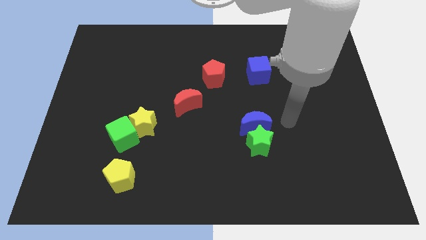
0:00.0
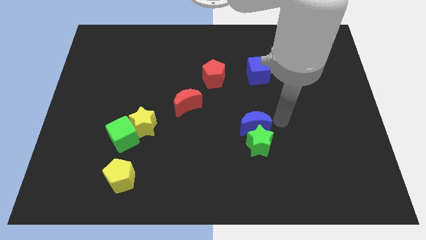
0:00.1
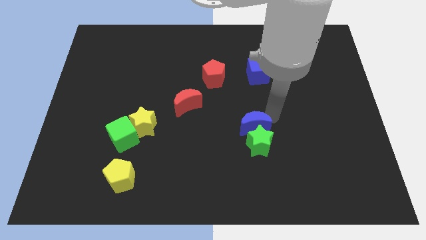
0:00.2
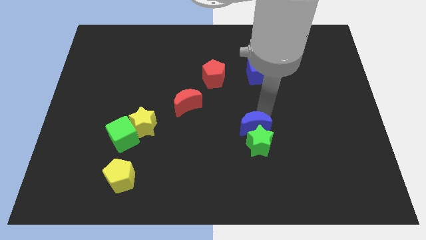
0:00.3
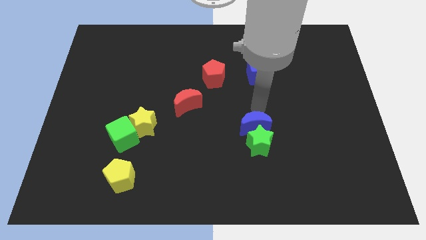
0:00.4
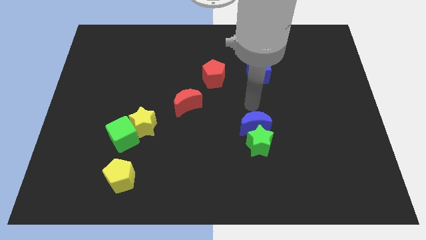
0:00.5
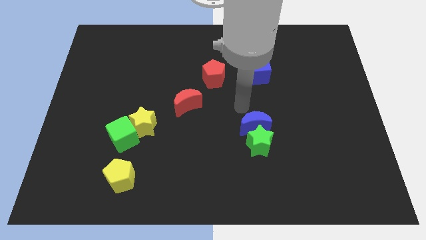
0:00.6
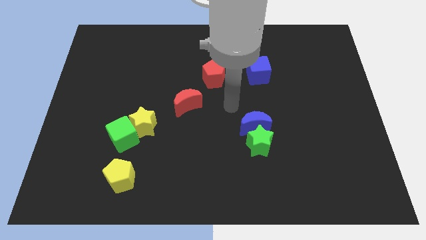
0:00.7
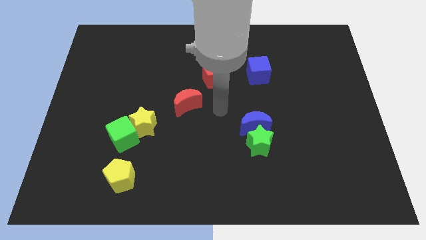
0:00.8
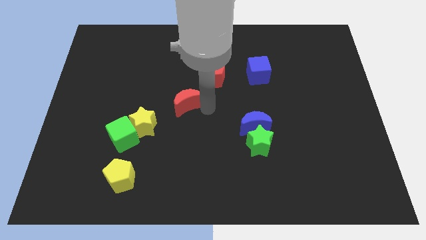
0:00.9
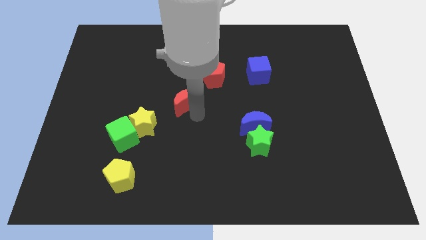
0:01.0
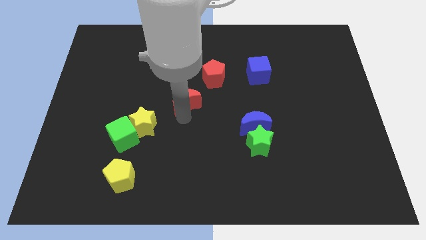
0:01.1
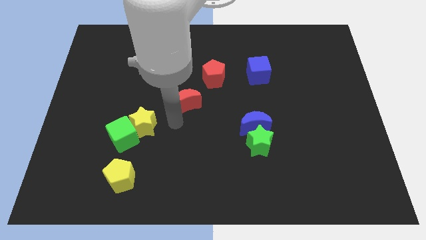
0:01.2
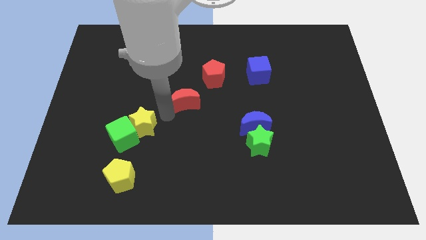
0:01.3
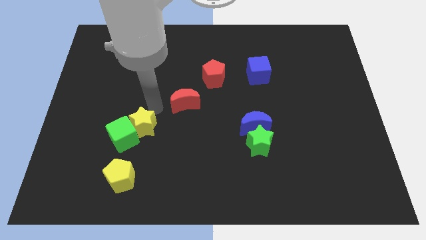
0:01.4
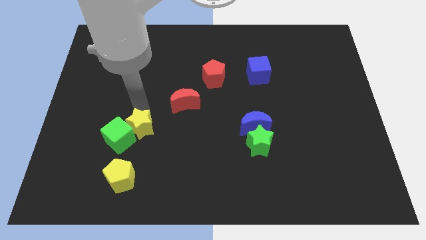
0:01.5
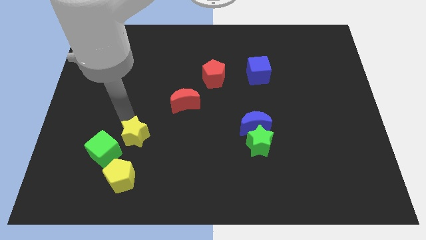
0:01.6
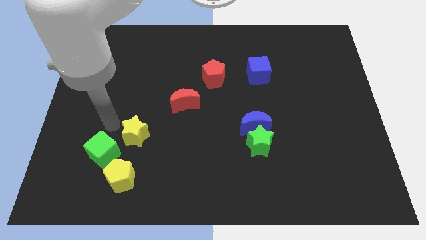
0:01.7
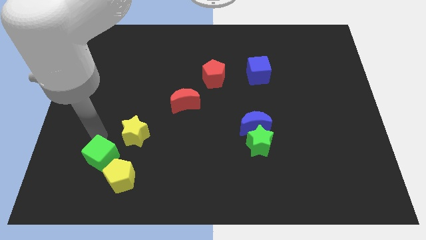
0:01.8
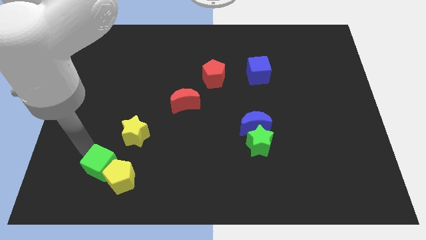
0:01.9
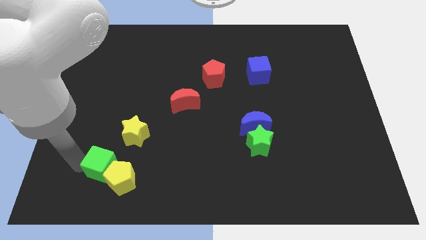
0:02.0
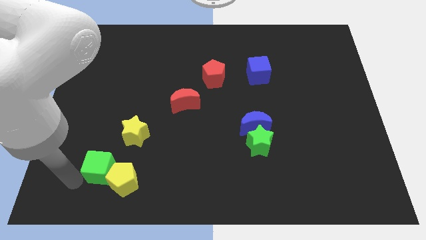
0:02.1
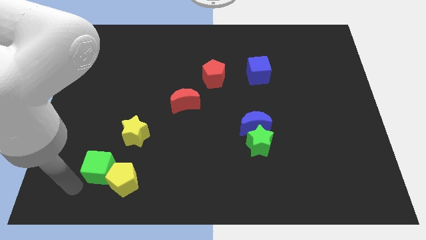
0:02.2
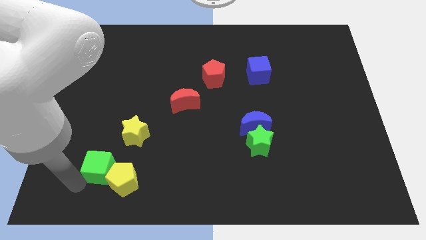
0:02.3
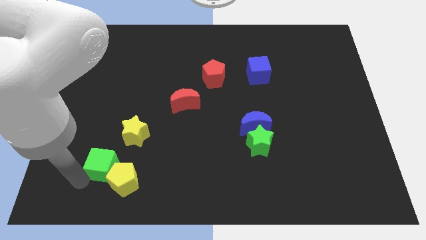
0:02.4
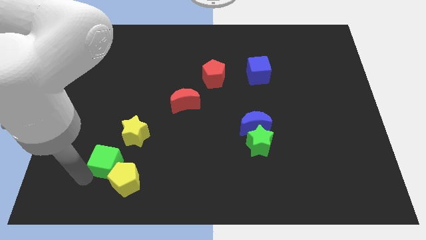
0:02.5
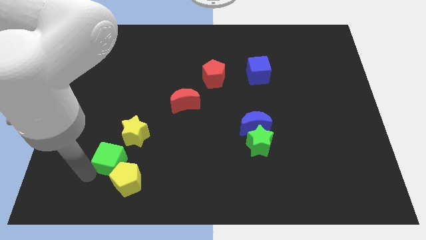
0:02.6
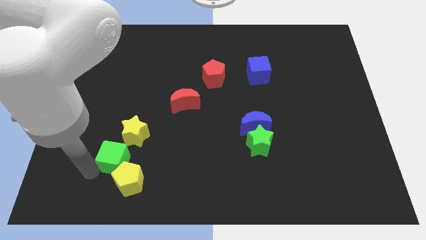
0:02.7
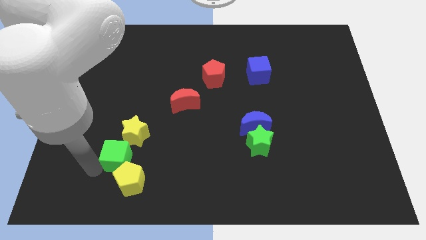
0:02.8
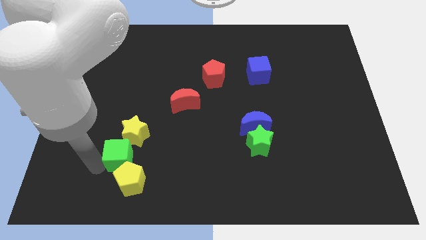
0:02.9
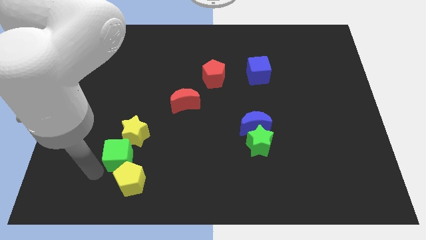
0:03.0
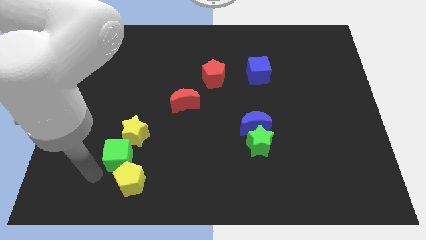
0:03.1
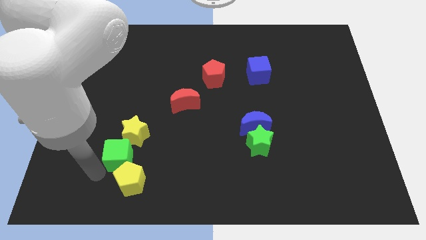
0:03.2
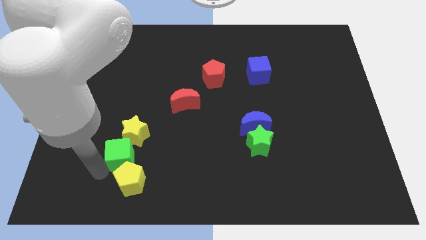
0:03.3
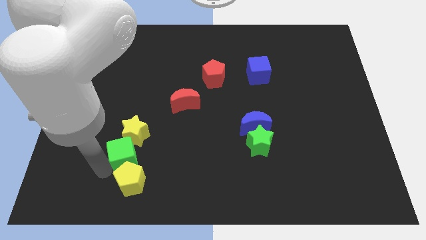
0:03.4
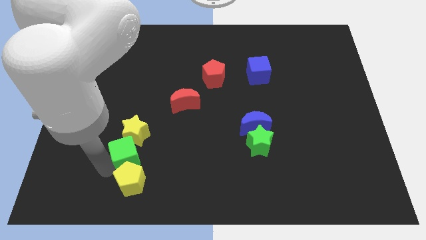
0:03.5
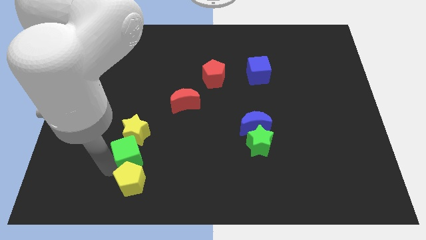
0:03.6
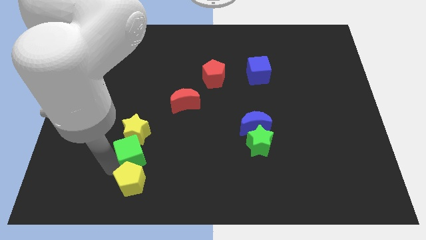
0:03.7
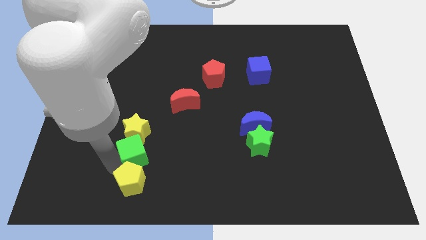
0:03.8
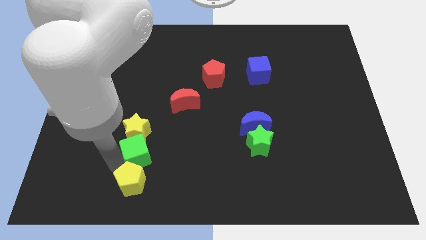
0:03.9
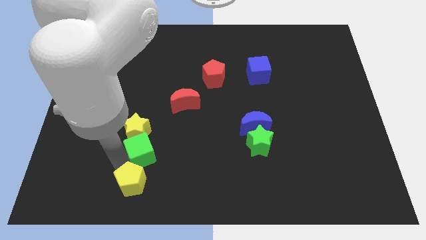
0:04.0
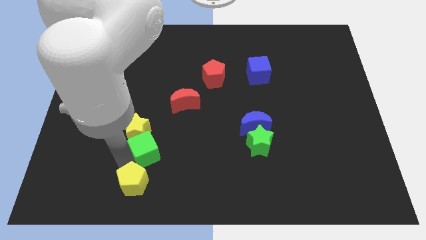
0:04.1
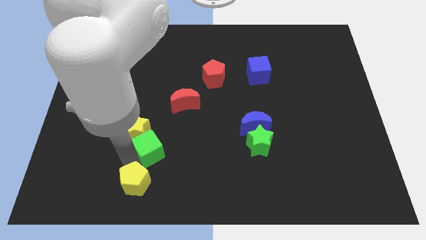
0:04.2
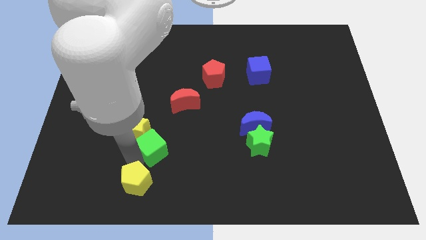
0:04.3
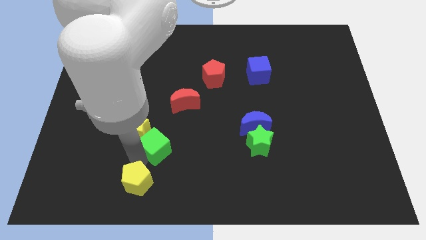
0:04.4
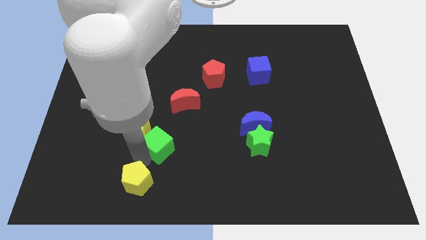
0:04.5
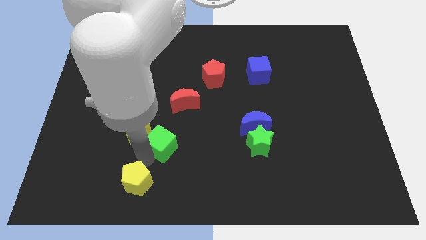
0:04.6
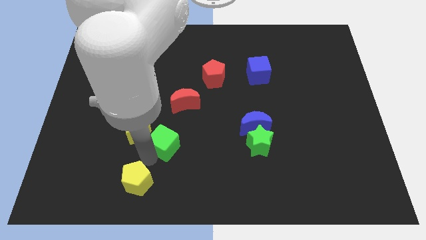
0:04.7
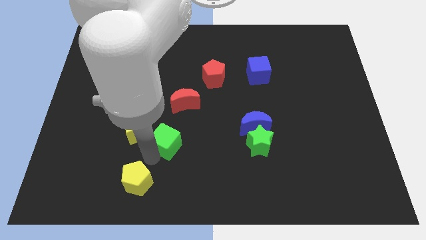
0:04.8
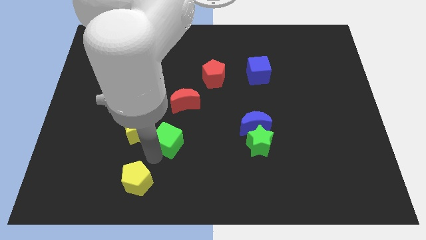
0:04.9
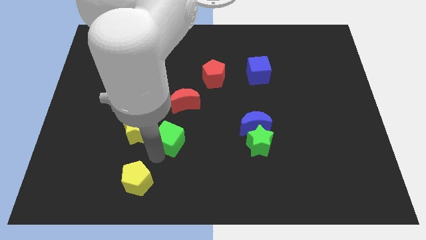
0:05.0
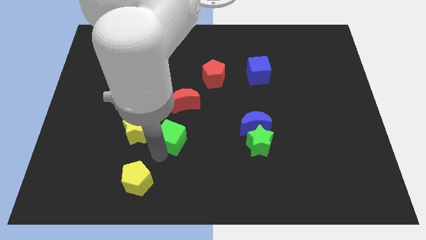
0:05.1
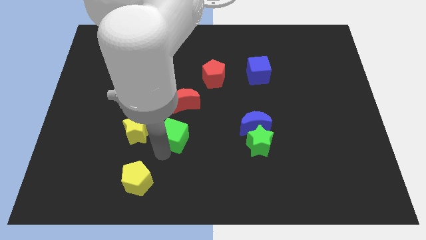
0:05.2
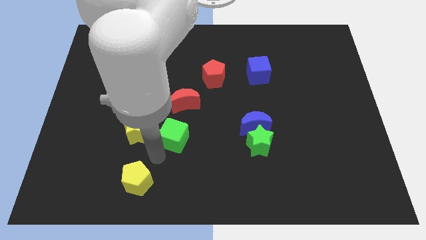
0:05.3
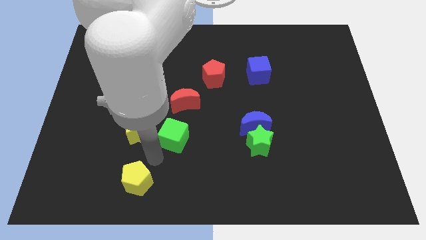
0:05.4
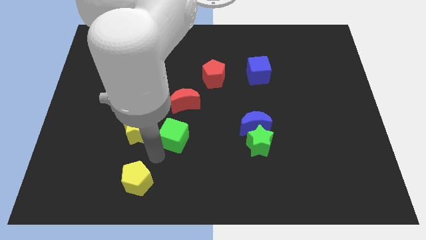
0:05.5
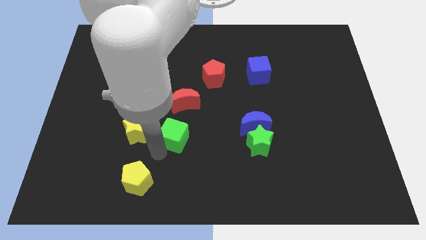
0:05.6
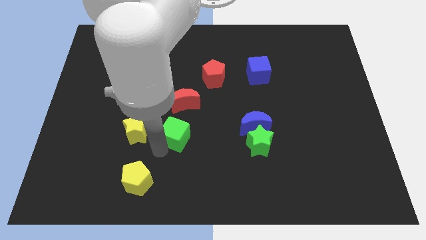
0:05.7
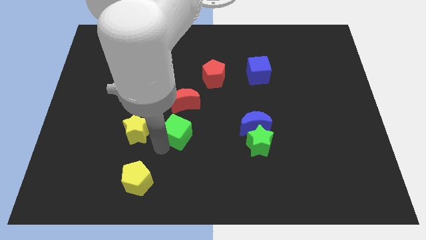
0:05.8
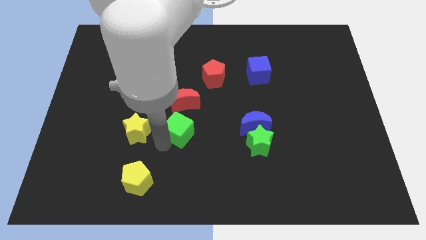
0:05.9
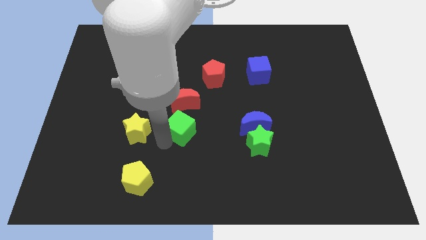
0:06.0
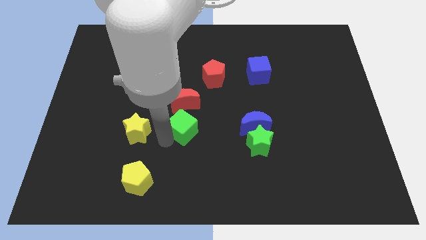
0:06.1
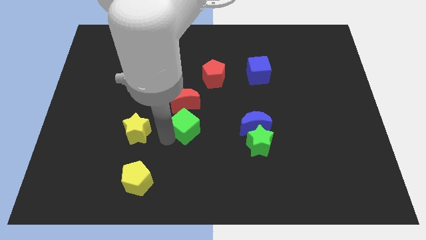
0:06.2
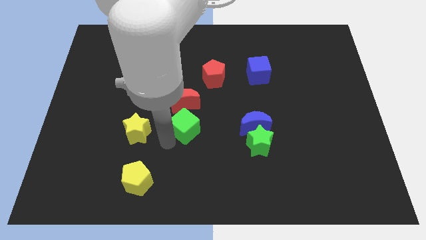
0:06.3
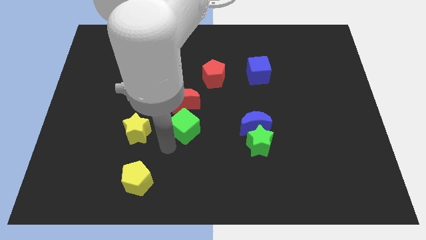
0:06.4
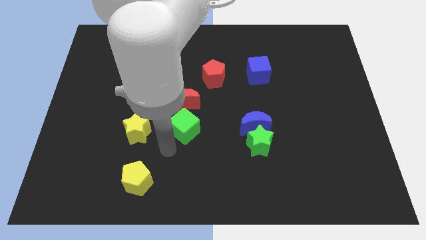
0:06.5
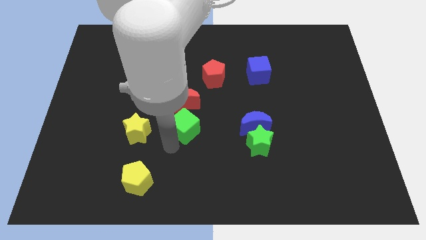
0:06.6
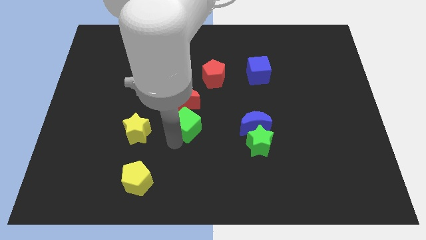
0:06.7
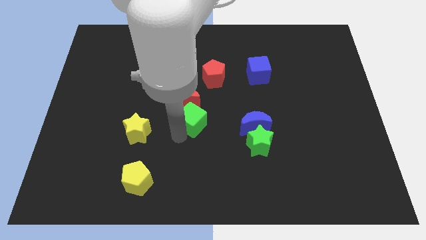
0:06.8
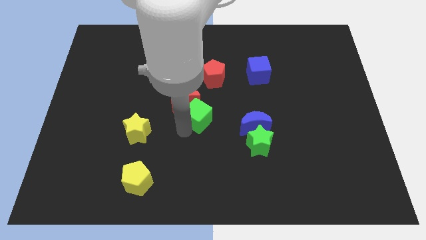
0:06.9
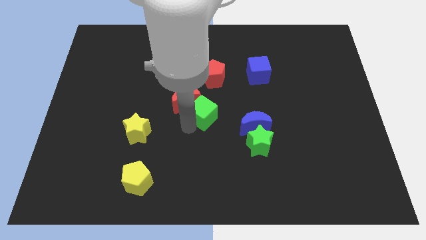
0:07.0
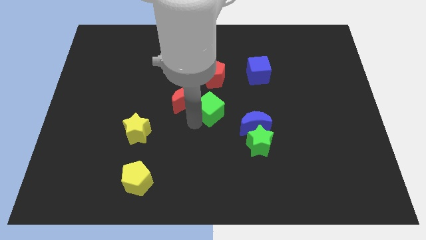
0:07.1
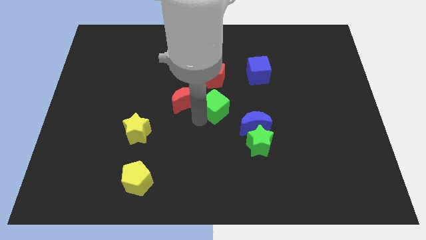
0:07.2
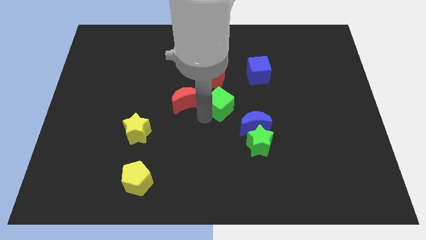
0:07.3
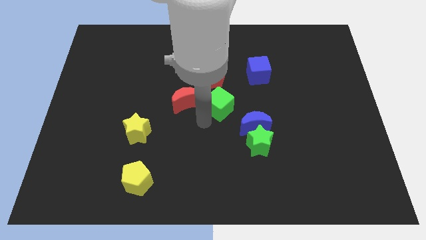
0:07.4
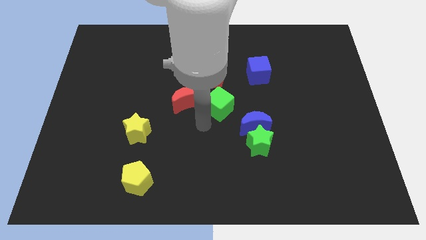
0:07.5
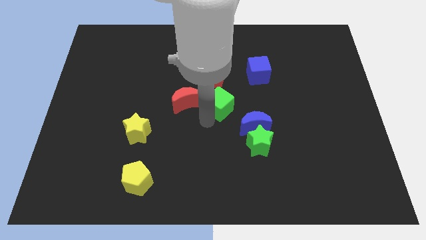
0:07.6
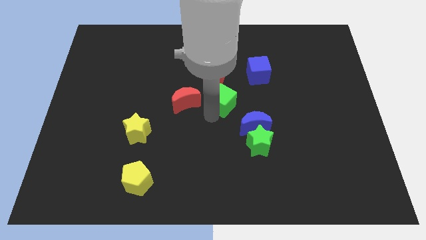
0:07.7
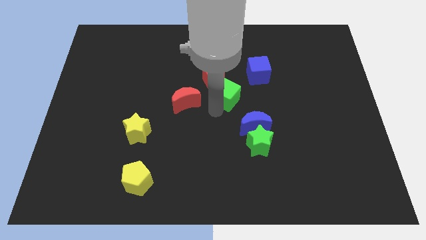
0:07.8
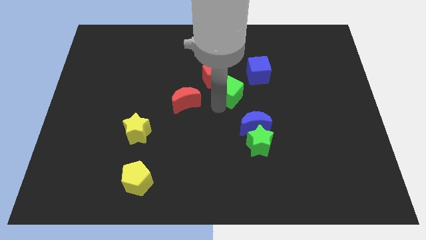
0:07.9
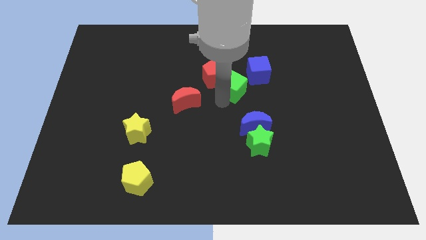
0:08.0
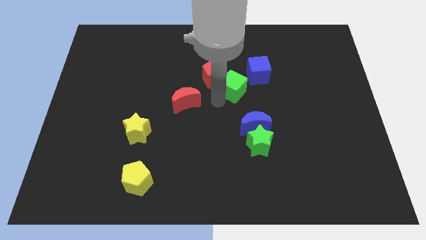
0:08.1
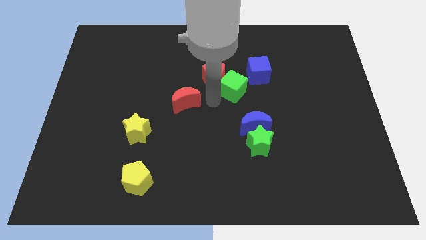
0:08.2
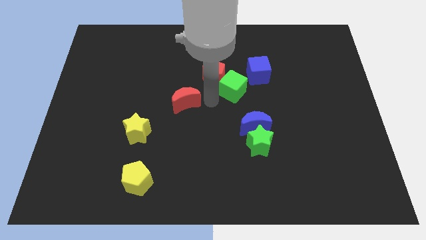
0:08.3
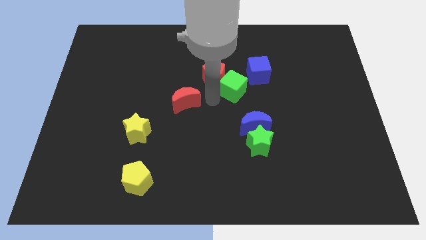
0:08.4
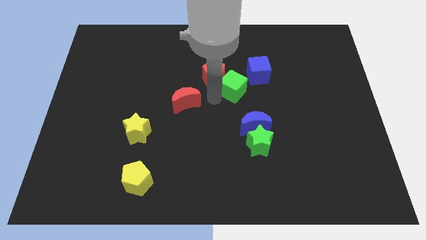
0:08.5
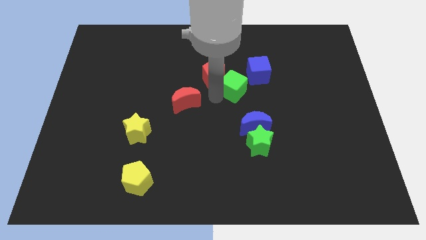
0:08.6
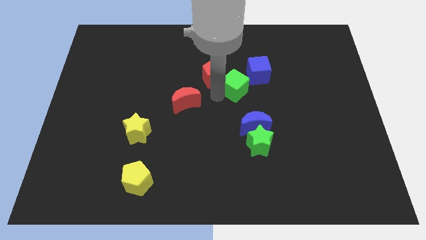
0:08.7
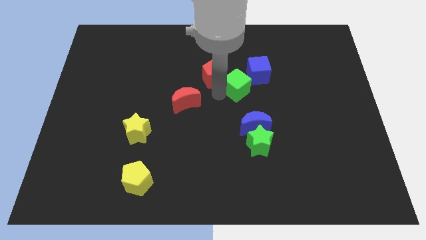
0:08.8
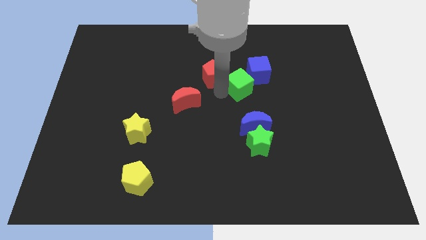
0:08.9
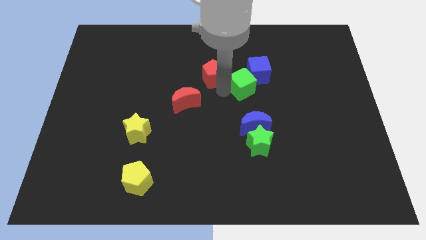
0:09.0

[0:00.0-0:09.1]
move the green cube to the blue cube
